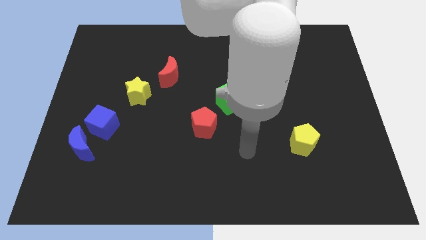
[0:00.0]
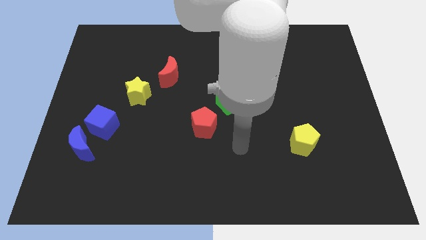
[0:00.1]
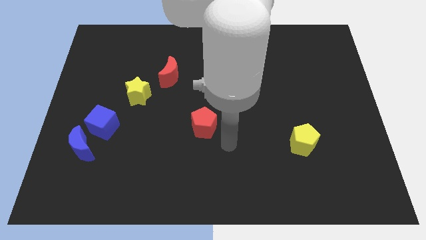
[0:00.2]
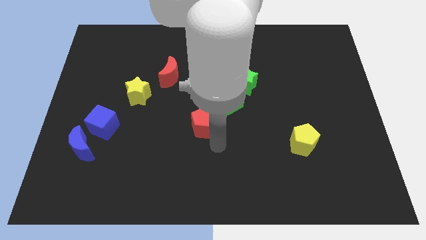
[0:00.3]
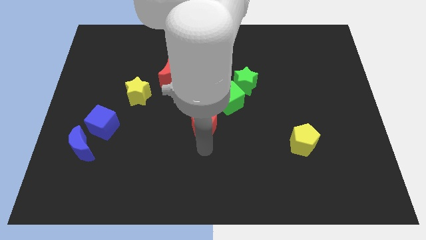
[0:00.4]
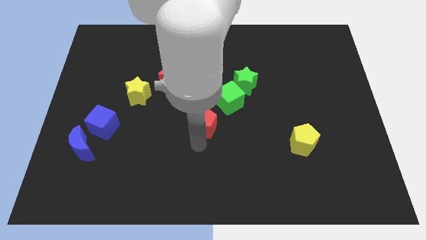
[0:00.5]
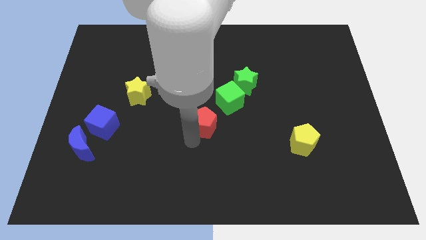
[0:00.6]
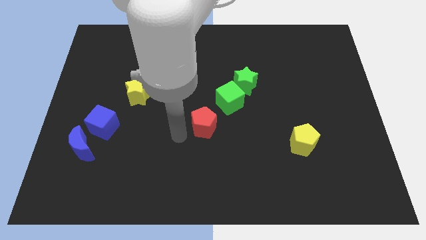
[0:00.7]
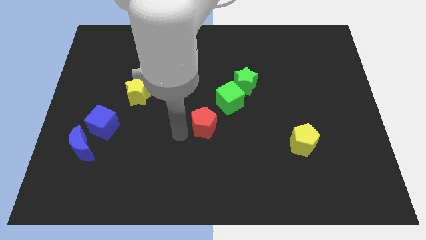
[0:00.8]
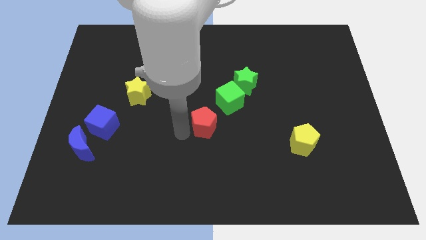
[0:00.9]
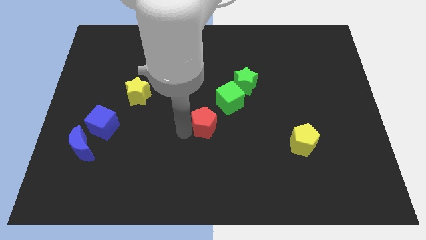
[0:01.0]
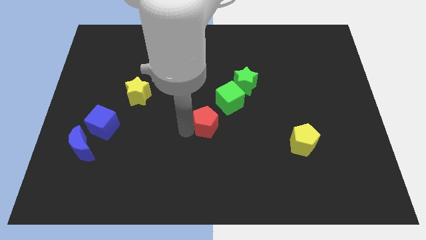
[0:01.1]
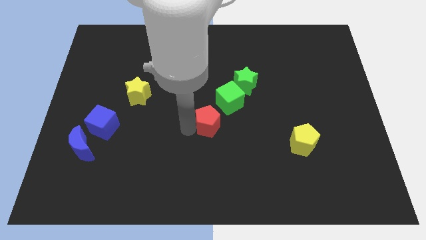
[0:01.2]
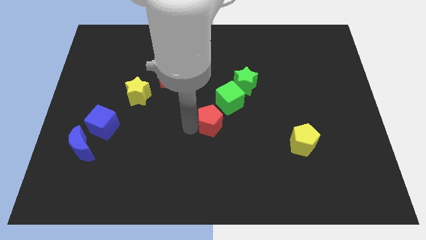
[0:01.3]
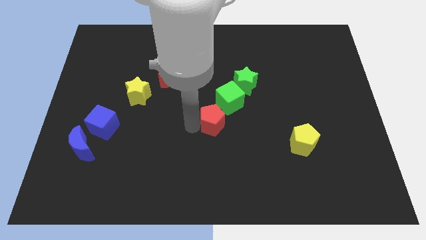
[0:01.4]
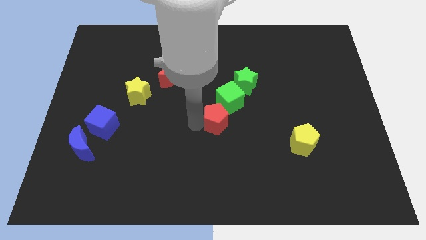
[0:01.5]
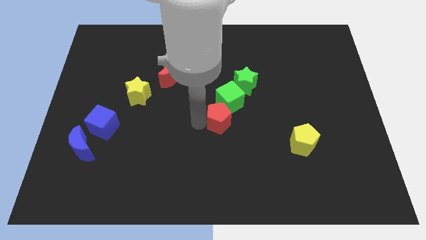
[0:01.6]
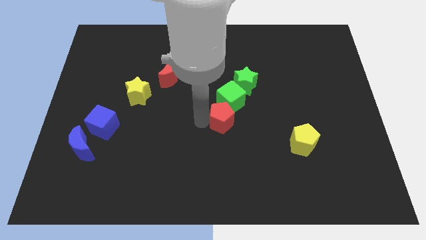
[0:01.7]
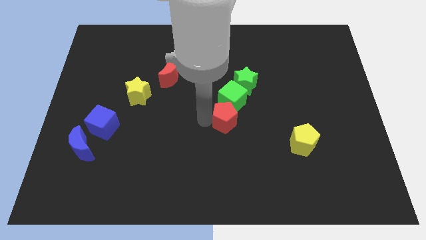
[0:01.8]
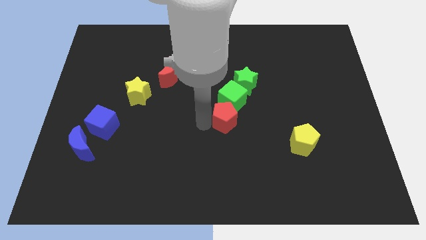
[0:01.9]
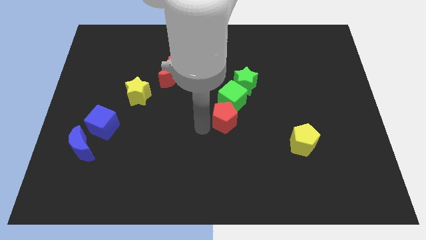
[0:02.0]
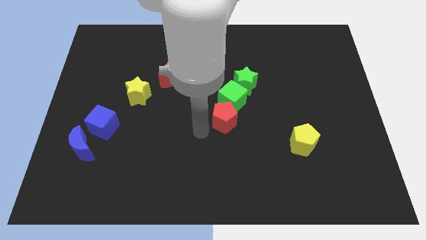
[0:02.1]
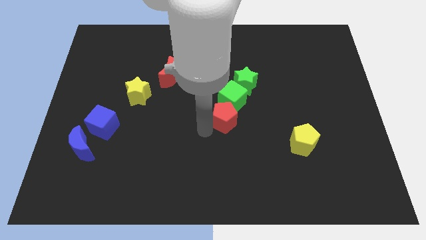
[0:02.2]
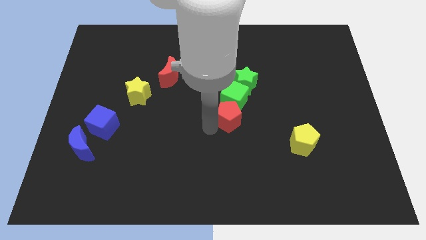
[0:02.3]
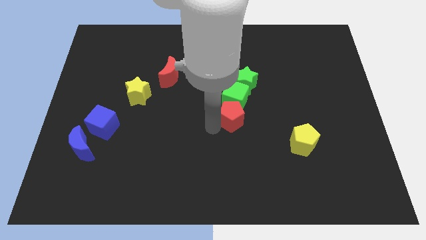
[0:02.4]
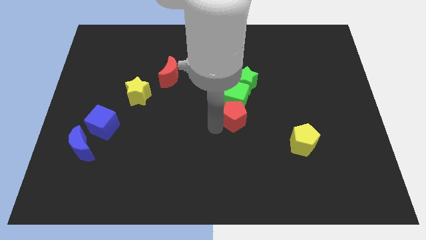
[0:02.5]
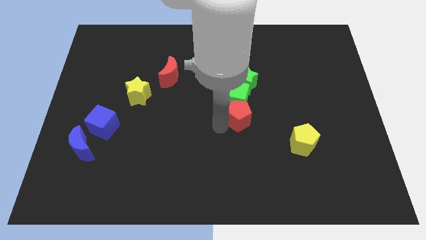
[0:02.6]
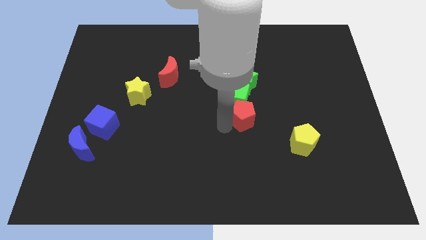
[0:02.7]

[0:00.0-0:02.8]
slightly move the red pentagon up and right diagonally

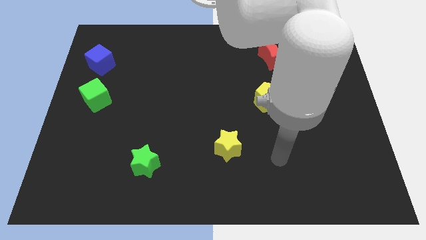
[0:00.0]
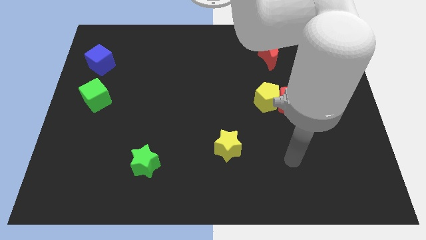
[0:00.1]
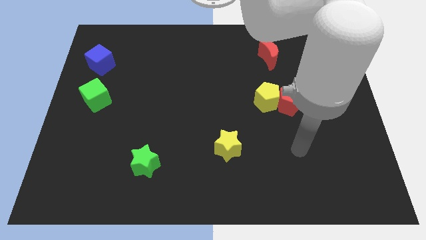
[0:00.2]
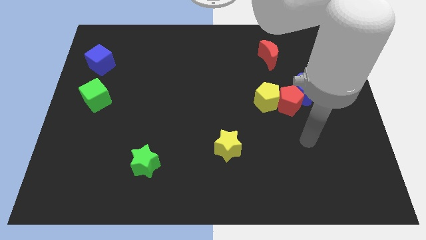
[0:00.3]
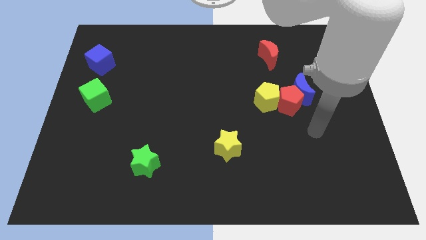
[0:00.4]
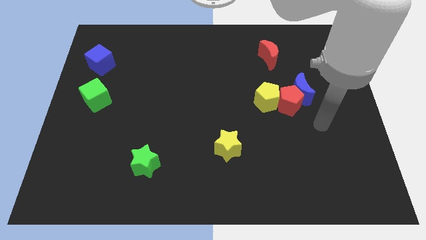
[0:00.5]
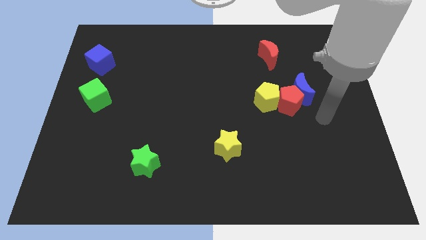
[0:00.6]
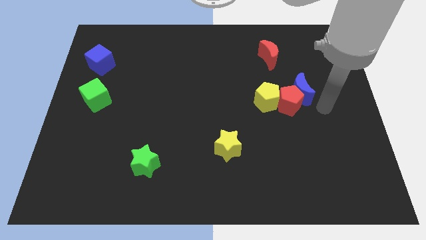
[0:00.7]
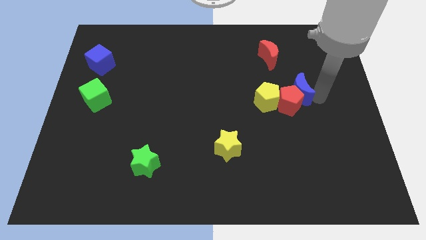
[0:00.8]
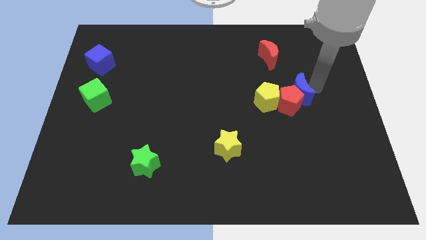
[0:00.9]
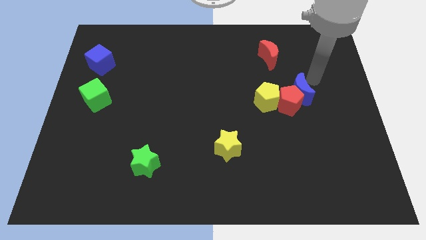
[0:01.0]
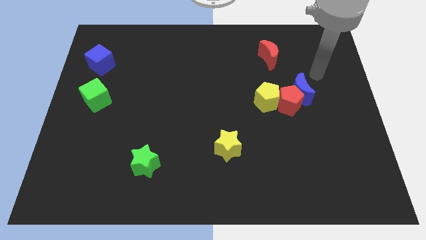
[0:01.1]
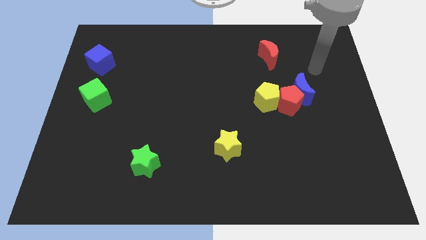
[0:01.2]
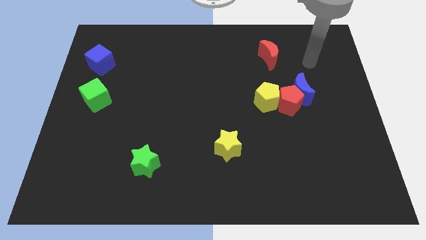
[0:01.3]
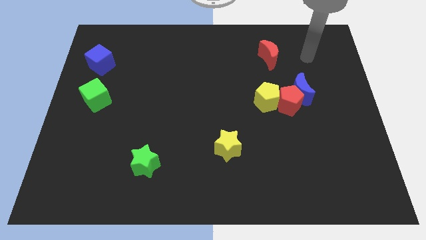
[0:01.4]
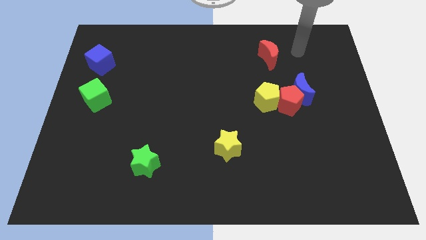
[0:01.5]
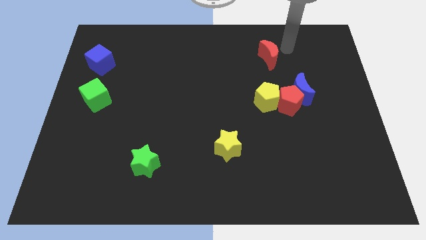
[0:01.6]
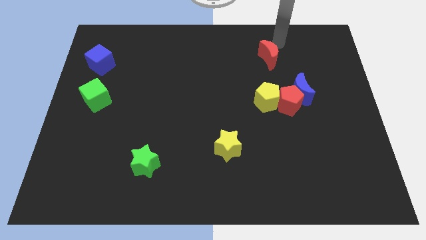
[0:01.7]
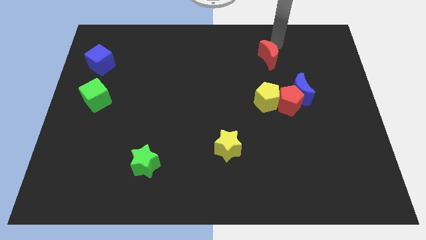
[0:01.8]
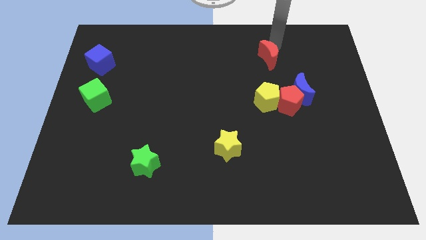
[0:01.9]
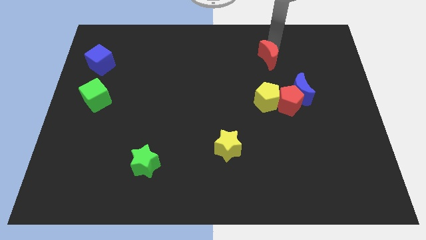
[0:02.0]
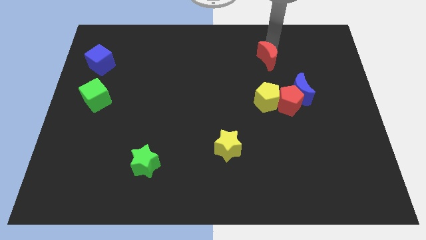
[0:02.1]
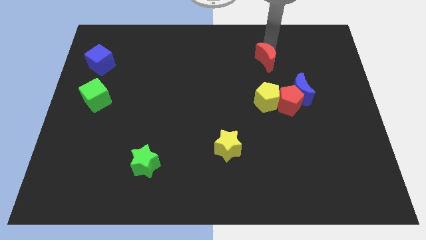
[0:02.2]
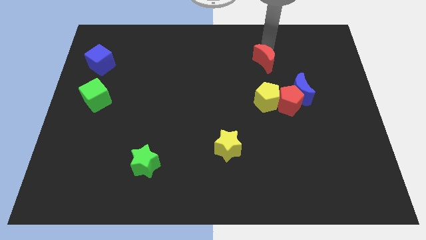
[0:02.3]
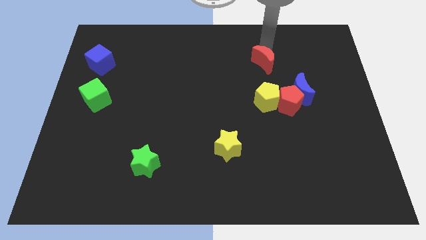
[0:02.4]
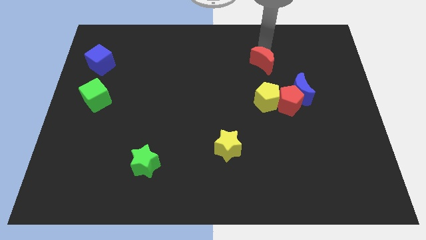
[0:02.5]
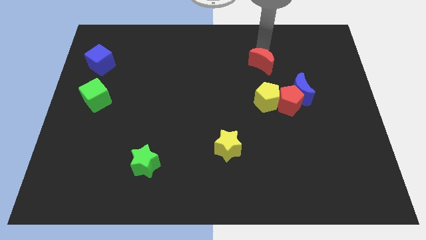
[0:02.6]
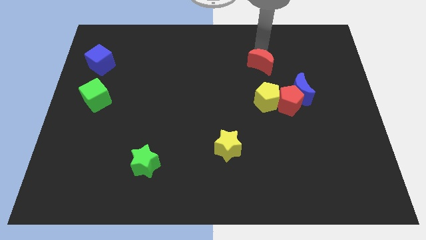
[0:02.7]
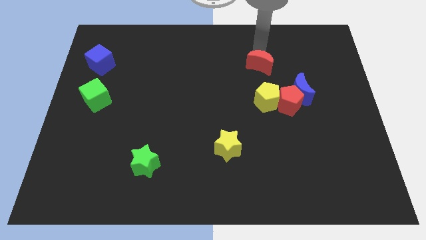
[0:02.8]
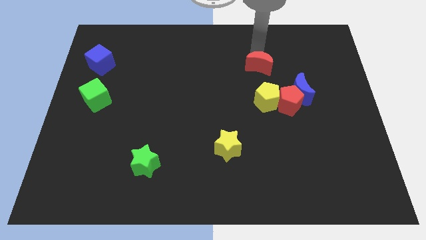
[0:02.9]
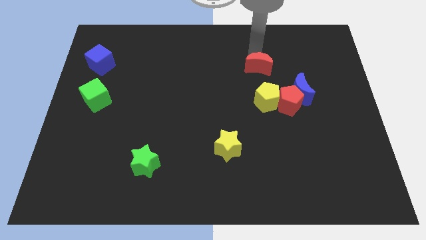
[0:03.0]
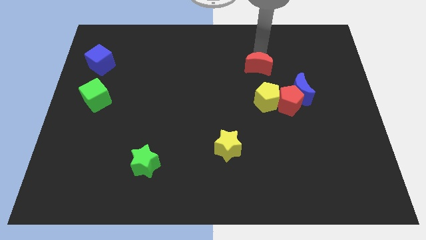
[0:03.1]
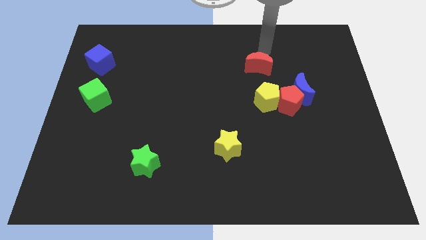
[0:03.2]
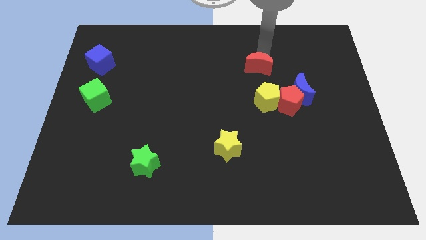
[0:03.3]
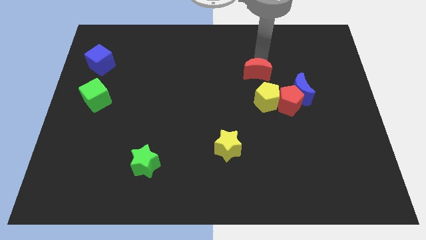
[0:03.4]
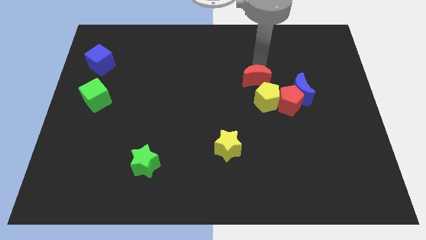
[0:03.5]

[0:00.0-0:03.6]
slightly slide the red moon downwards

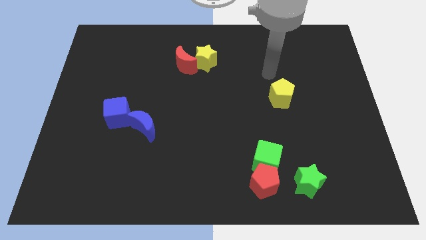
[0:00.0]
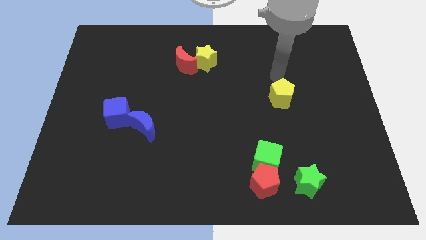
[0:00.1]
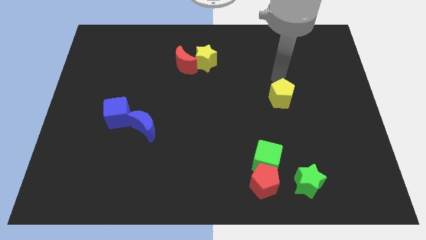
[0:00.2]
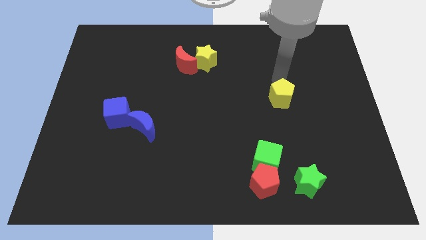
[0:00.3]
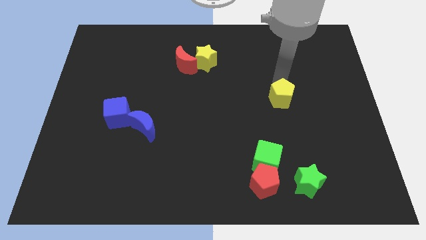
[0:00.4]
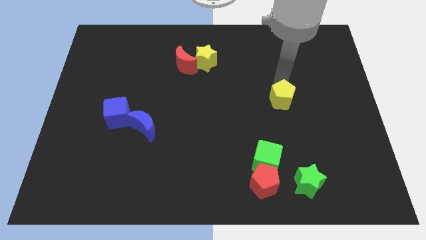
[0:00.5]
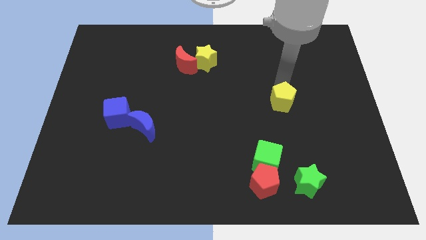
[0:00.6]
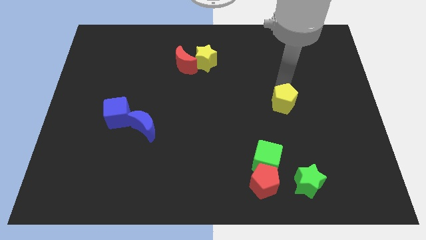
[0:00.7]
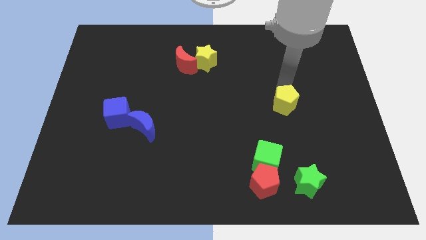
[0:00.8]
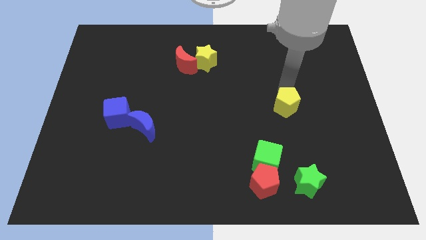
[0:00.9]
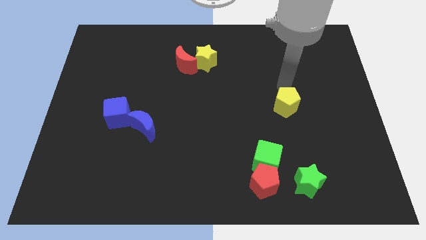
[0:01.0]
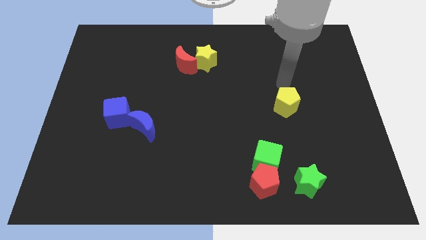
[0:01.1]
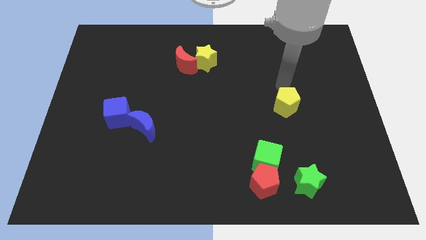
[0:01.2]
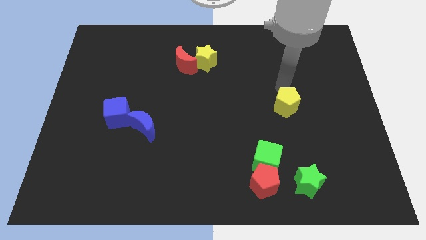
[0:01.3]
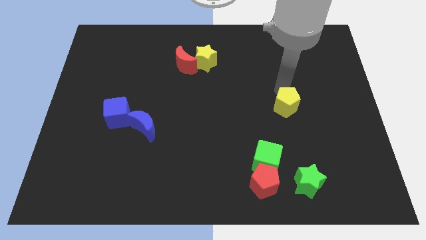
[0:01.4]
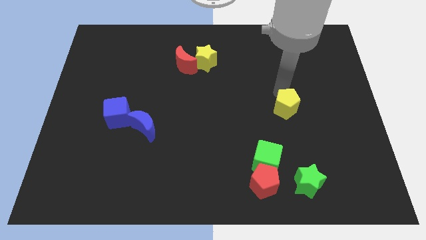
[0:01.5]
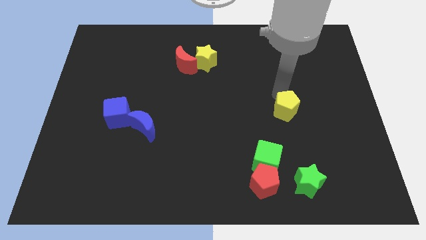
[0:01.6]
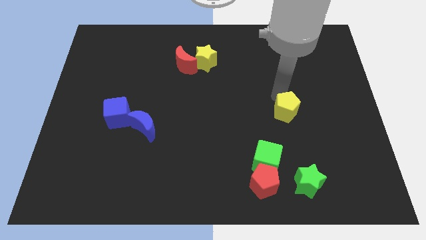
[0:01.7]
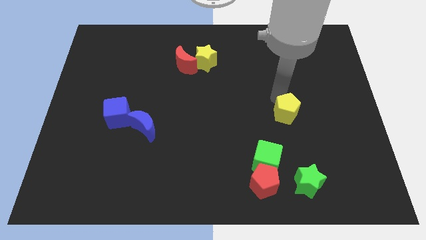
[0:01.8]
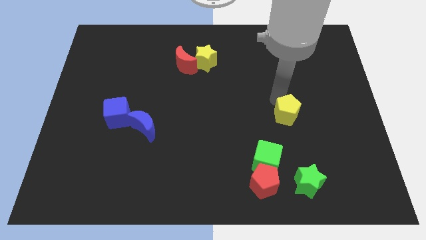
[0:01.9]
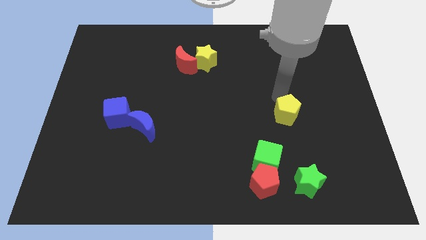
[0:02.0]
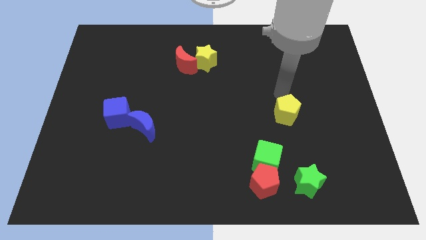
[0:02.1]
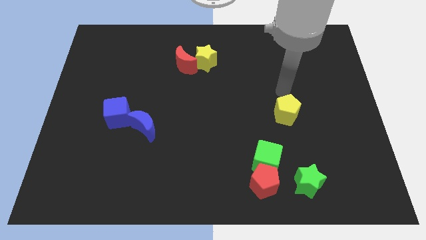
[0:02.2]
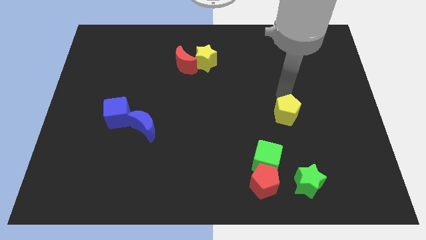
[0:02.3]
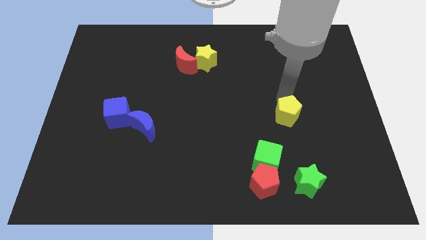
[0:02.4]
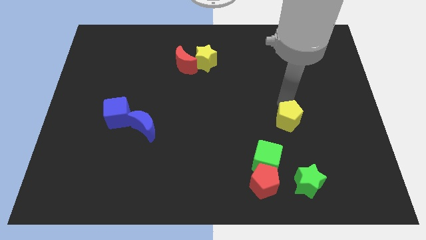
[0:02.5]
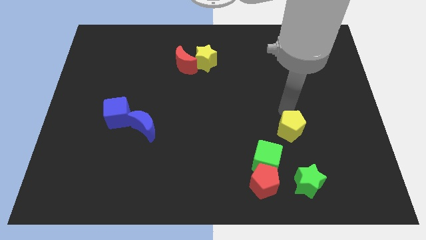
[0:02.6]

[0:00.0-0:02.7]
move the yellow pentagon down a little bit
